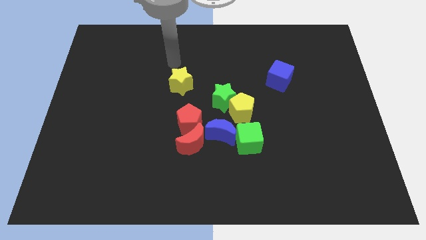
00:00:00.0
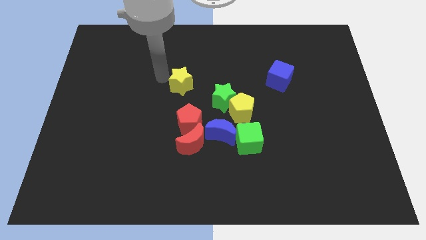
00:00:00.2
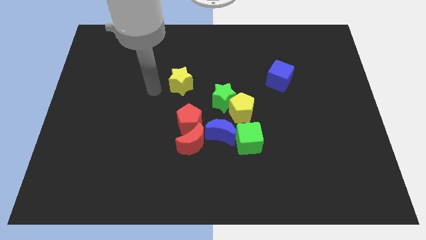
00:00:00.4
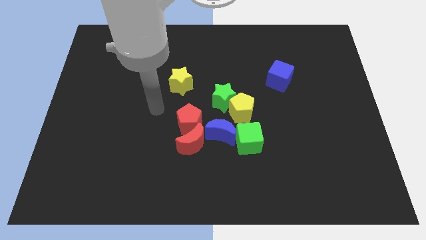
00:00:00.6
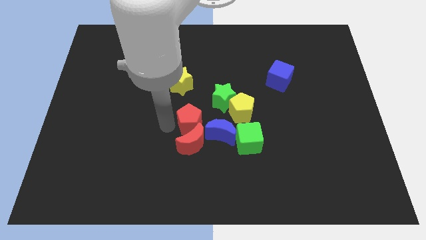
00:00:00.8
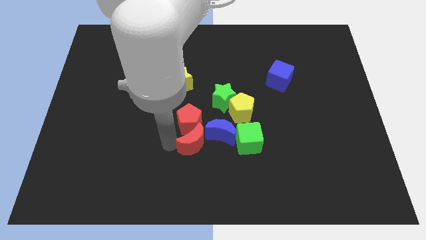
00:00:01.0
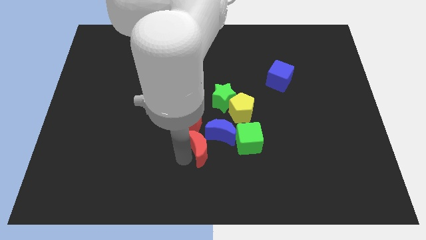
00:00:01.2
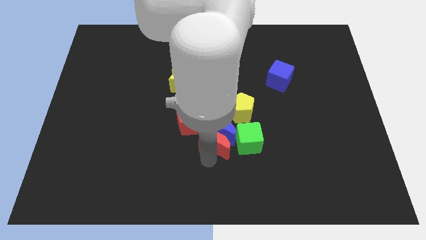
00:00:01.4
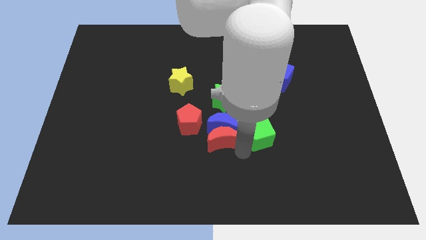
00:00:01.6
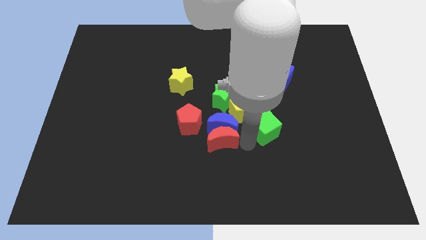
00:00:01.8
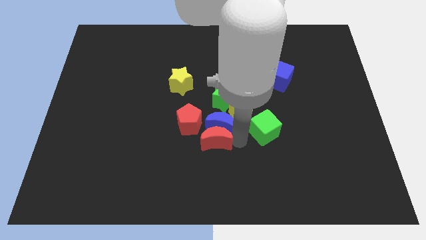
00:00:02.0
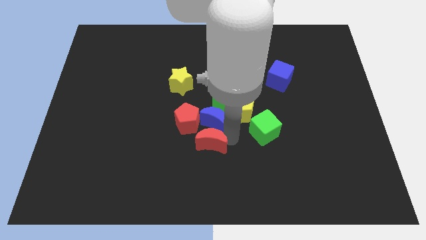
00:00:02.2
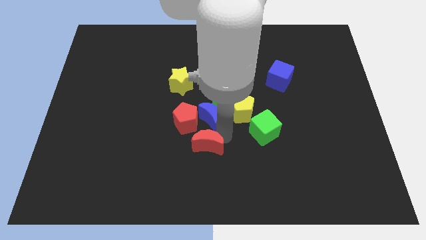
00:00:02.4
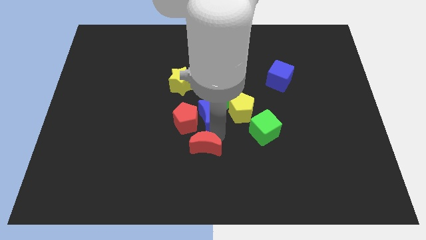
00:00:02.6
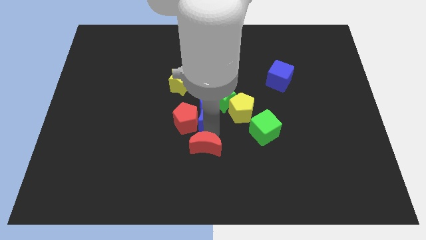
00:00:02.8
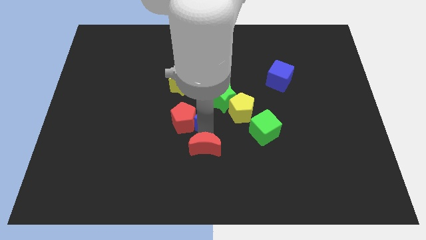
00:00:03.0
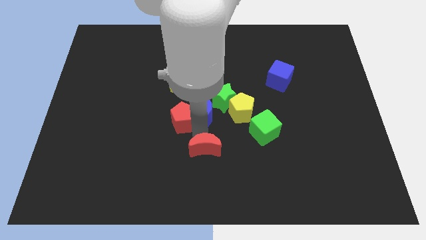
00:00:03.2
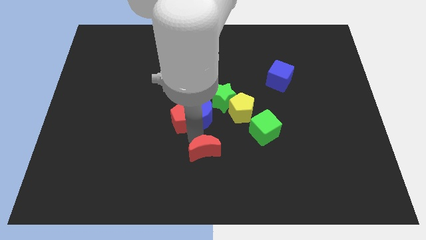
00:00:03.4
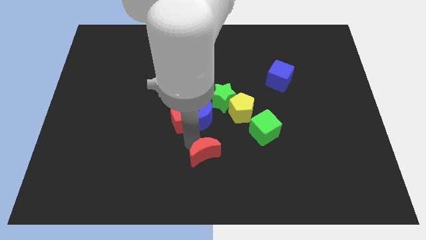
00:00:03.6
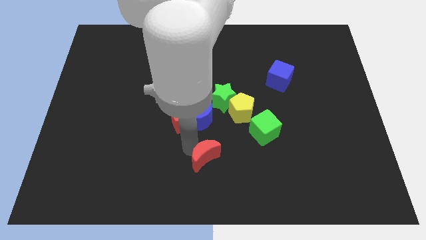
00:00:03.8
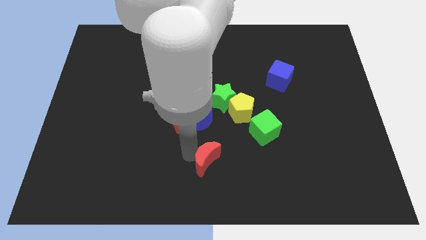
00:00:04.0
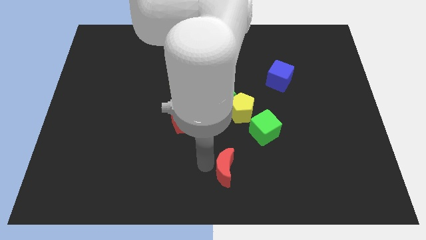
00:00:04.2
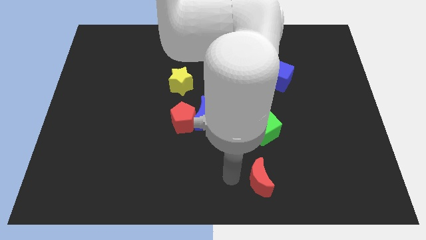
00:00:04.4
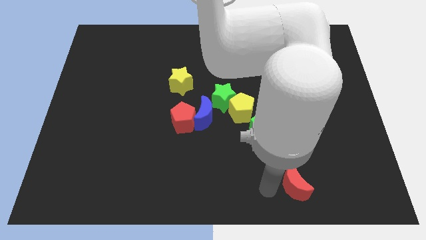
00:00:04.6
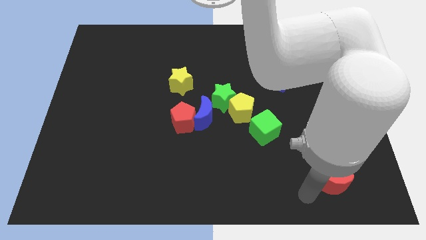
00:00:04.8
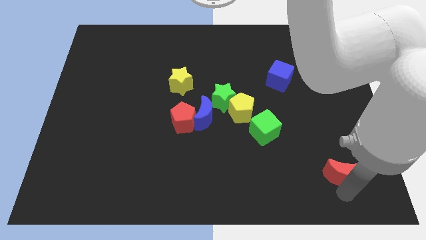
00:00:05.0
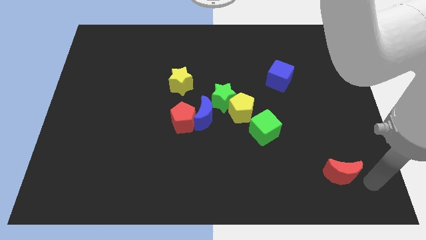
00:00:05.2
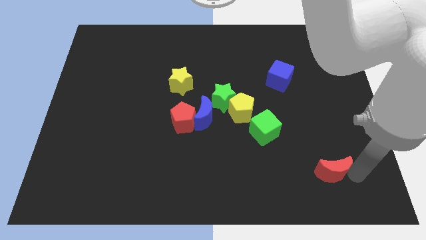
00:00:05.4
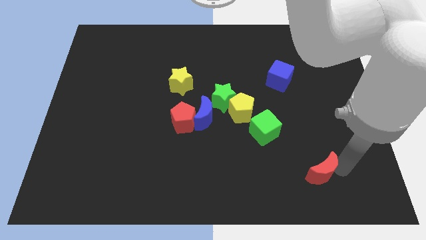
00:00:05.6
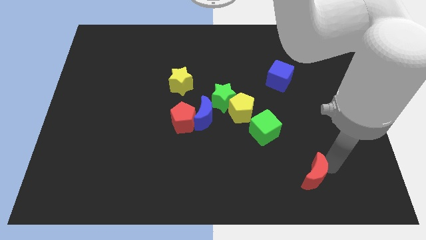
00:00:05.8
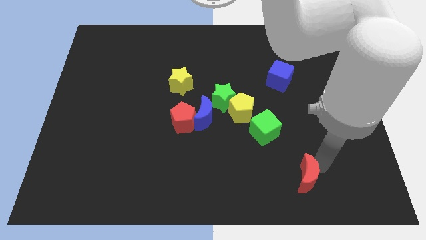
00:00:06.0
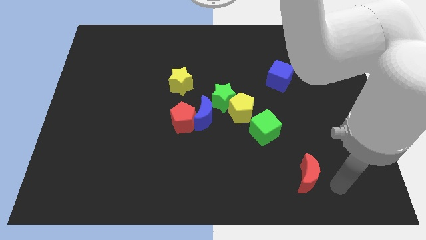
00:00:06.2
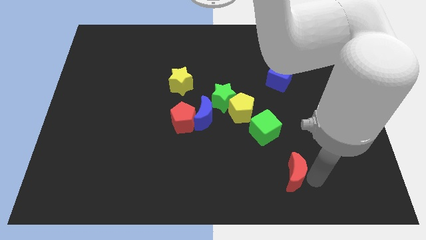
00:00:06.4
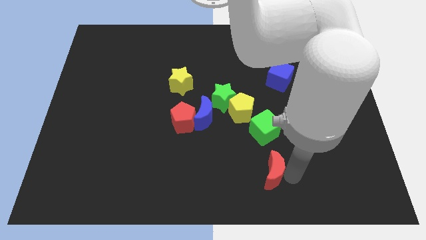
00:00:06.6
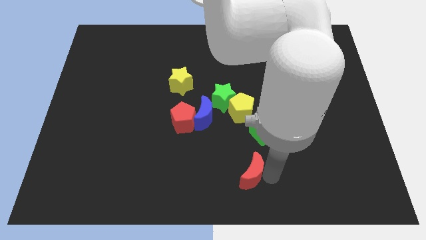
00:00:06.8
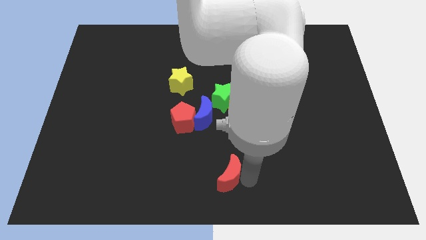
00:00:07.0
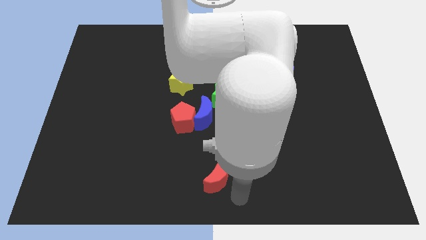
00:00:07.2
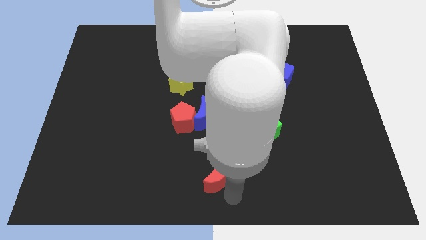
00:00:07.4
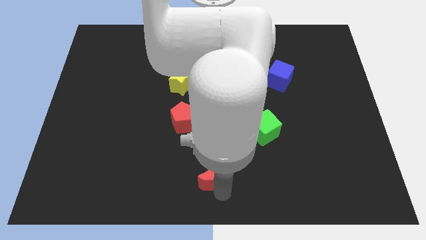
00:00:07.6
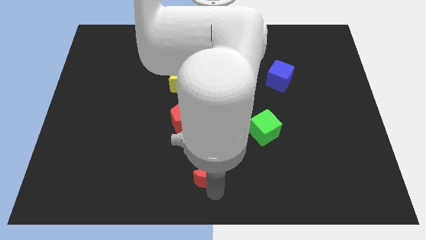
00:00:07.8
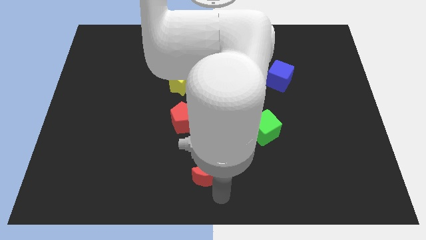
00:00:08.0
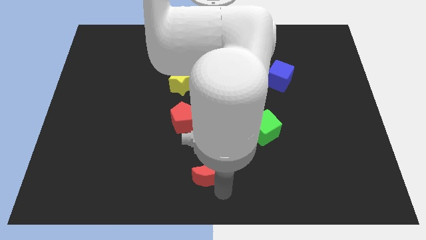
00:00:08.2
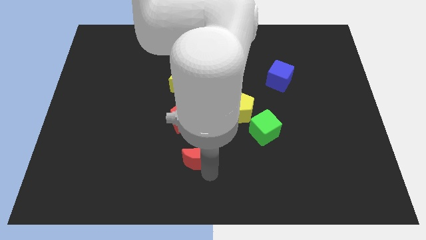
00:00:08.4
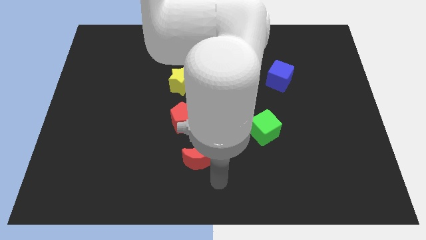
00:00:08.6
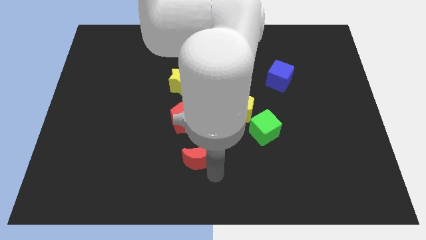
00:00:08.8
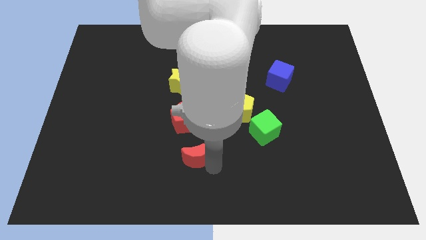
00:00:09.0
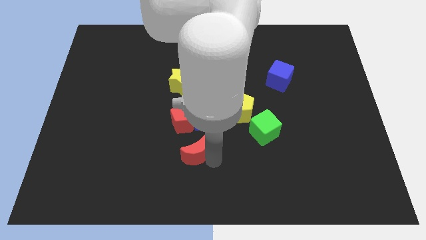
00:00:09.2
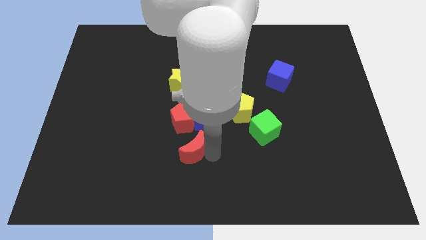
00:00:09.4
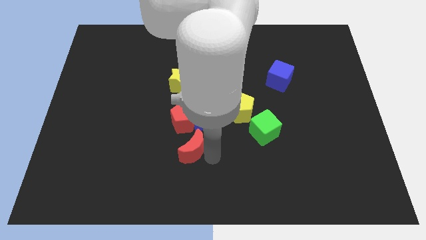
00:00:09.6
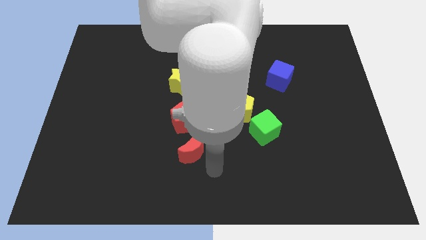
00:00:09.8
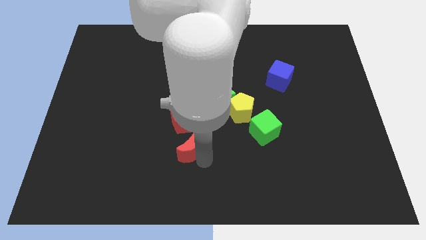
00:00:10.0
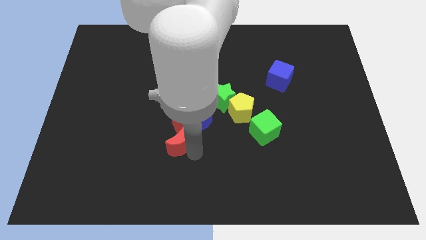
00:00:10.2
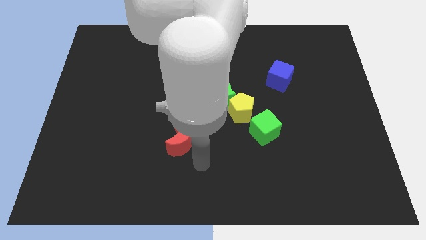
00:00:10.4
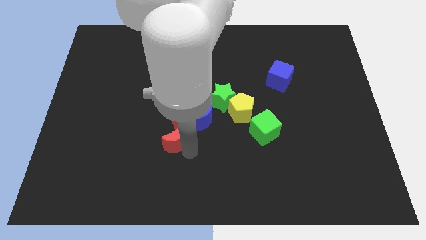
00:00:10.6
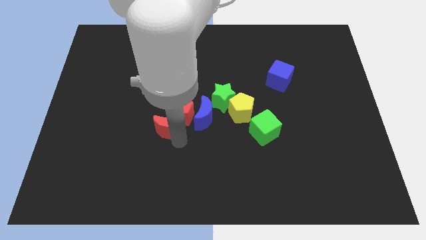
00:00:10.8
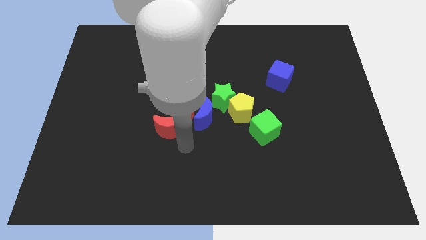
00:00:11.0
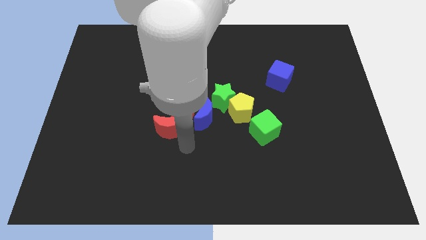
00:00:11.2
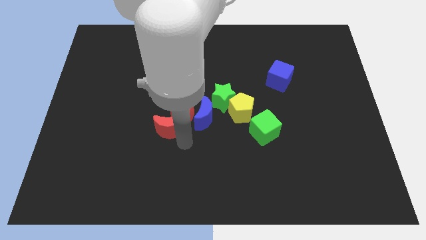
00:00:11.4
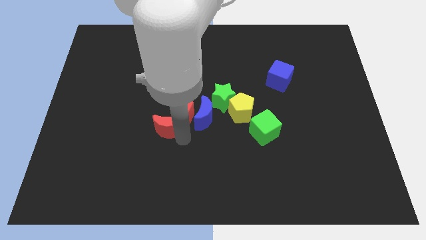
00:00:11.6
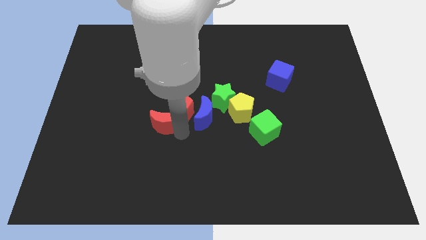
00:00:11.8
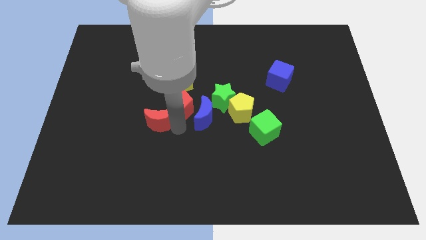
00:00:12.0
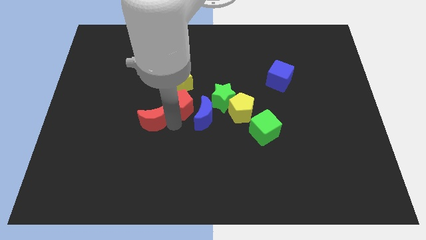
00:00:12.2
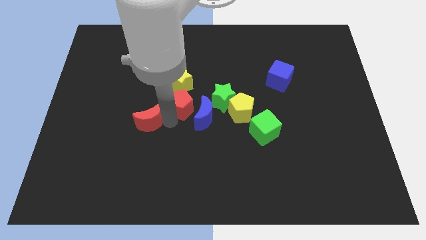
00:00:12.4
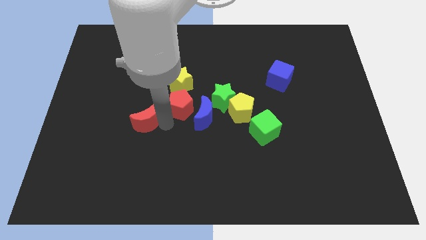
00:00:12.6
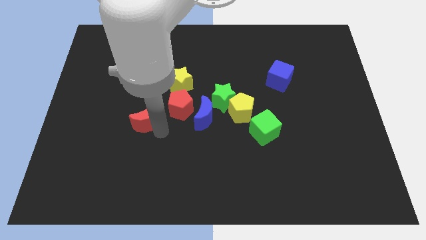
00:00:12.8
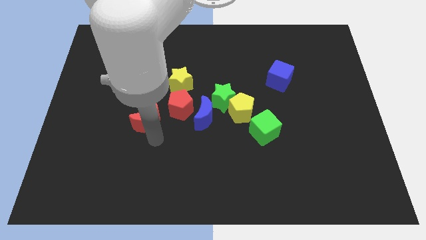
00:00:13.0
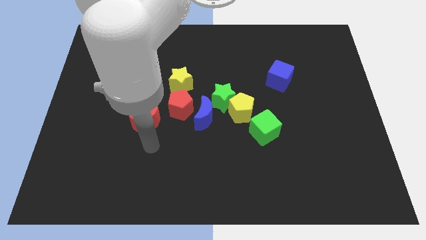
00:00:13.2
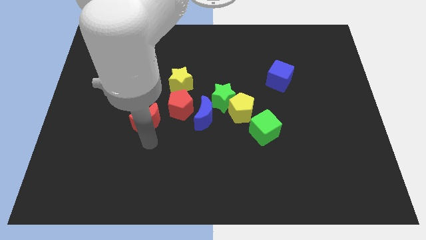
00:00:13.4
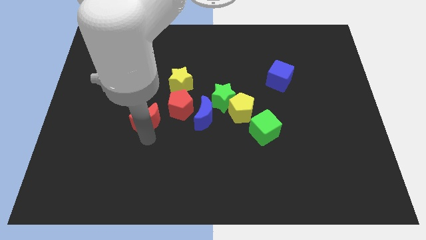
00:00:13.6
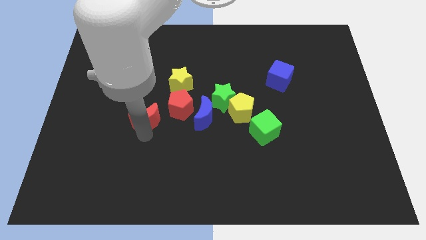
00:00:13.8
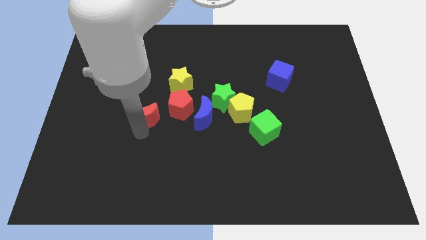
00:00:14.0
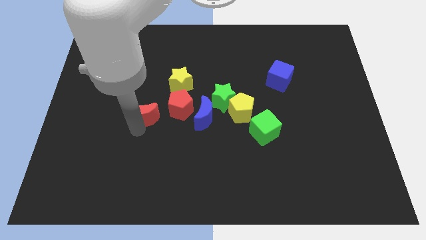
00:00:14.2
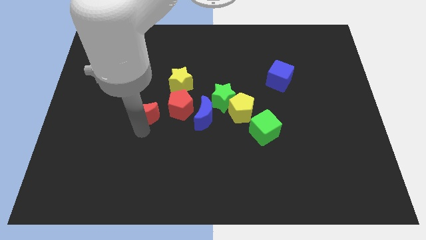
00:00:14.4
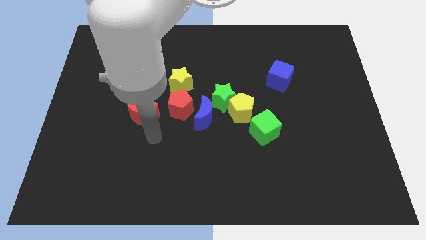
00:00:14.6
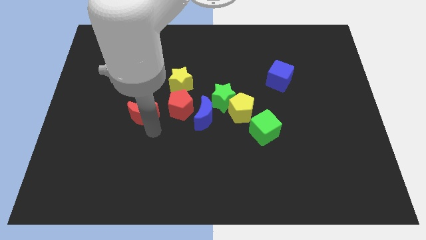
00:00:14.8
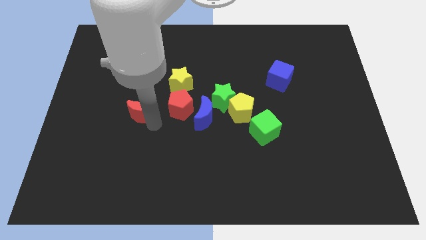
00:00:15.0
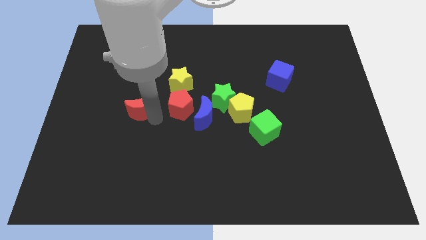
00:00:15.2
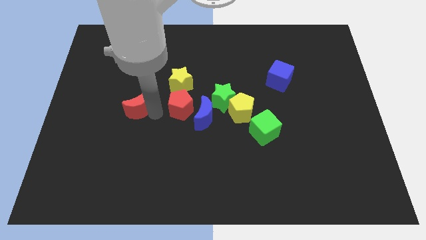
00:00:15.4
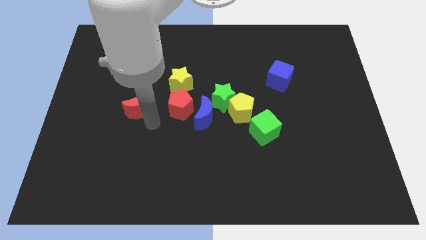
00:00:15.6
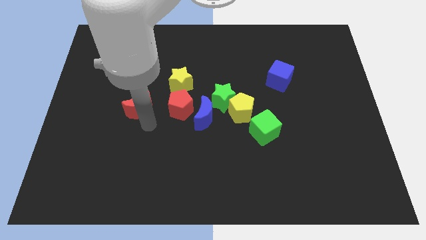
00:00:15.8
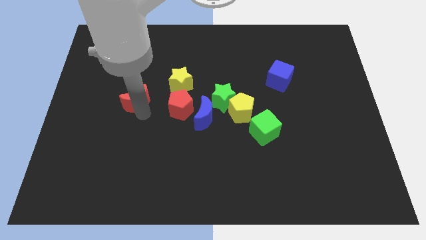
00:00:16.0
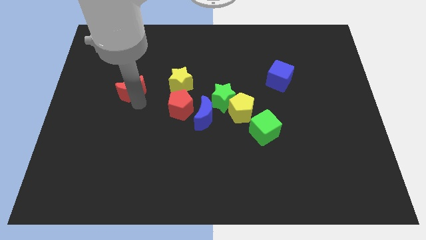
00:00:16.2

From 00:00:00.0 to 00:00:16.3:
slide the red moon diagonally up and to the left
